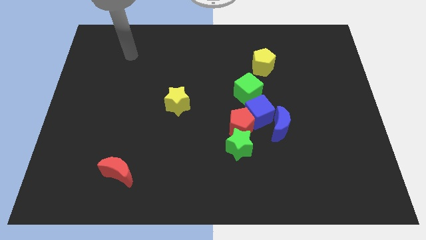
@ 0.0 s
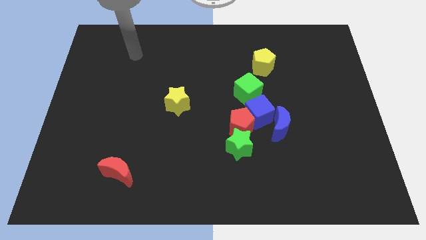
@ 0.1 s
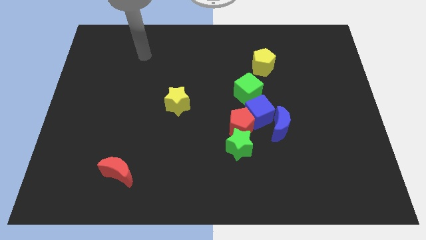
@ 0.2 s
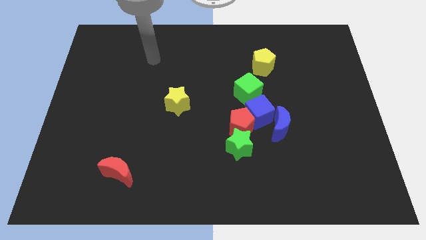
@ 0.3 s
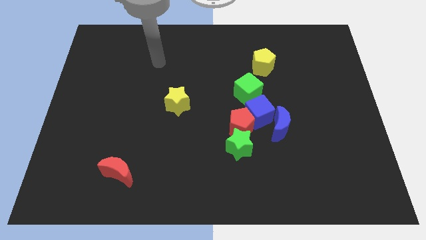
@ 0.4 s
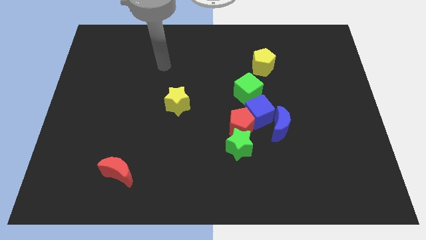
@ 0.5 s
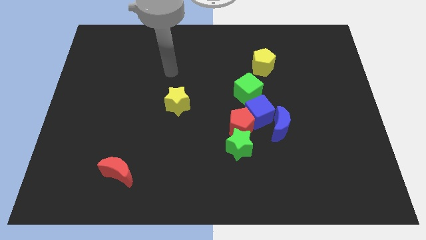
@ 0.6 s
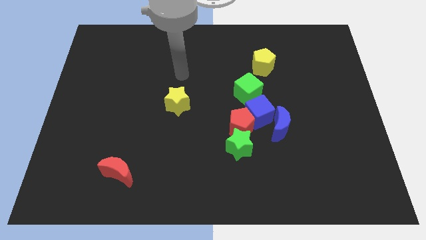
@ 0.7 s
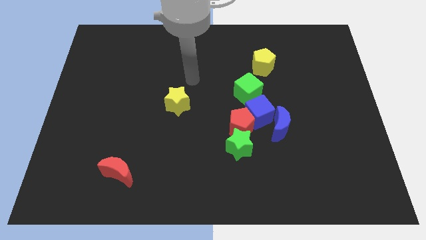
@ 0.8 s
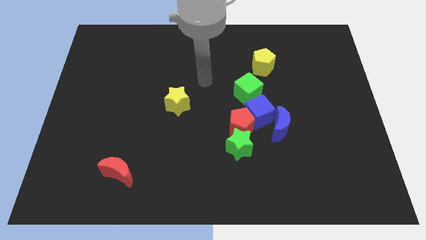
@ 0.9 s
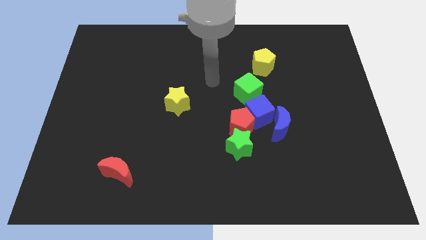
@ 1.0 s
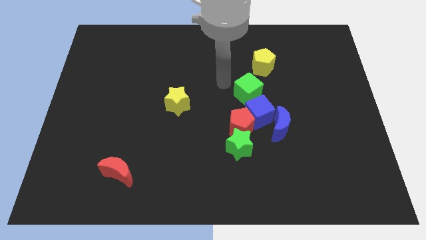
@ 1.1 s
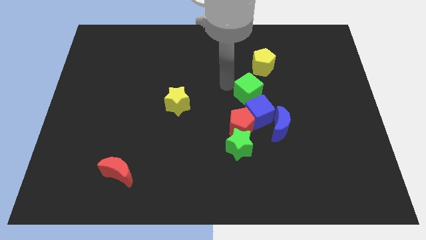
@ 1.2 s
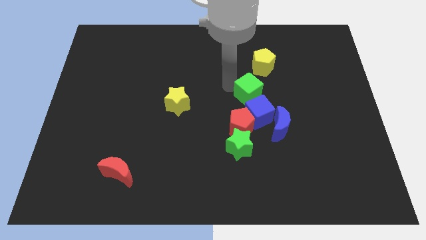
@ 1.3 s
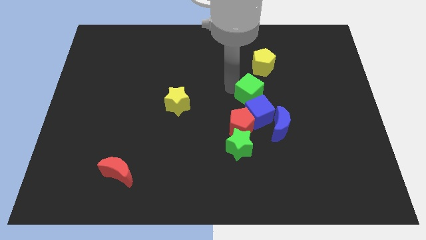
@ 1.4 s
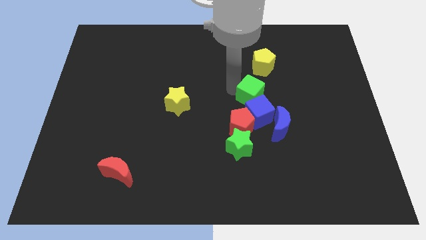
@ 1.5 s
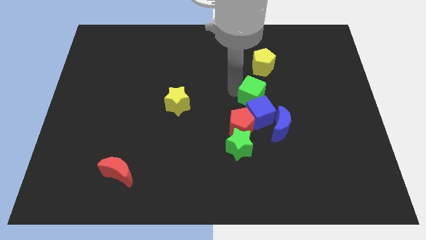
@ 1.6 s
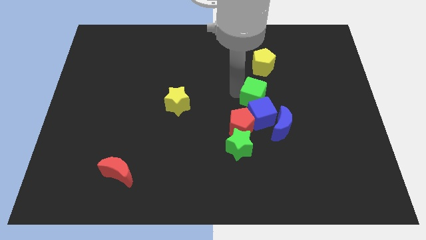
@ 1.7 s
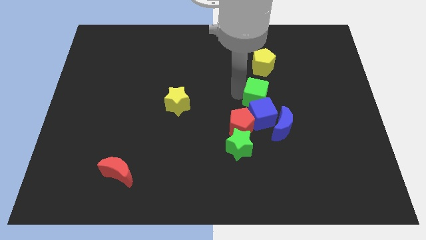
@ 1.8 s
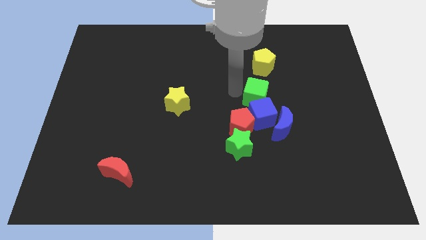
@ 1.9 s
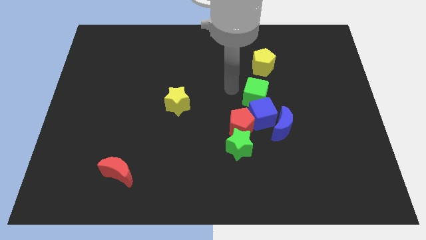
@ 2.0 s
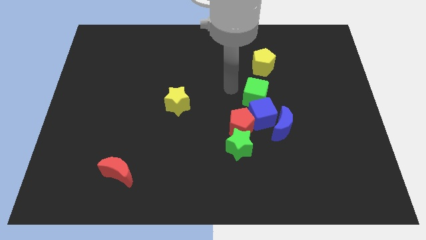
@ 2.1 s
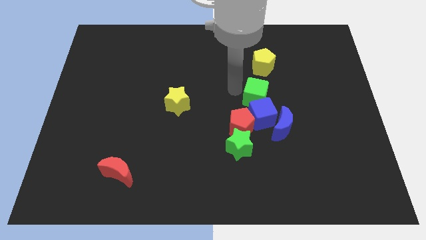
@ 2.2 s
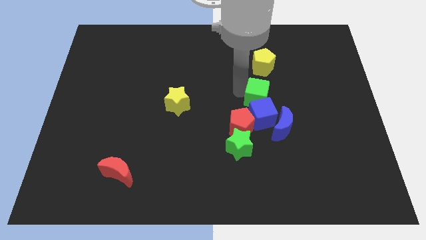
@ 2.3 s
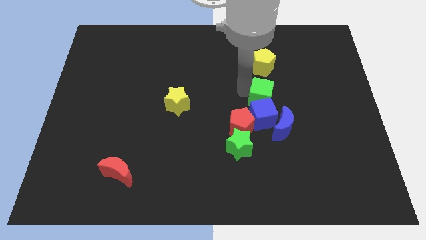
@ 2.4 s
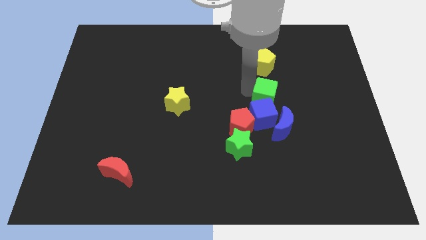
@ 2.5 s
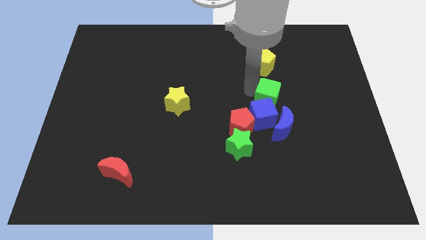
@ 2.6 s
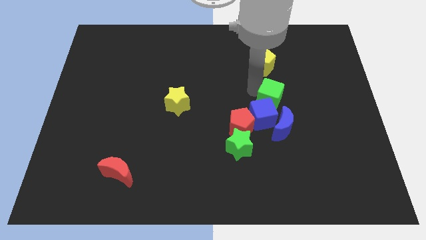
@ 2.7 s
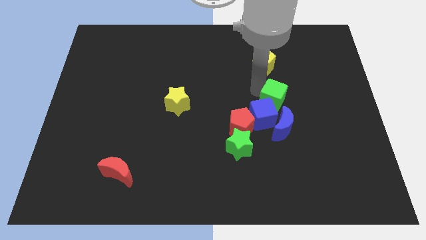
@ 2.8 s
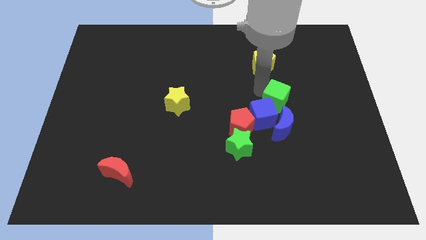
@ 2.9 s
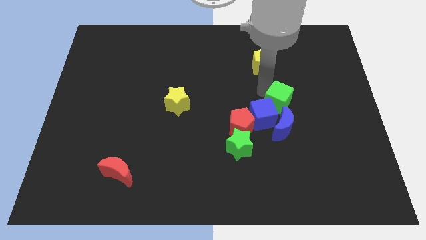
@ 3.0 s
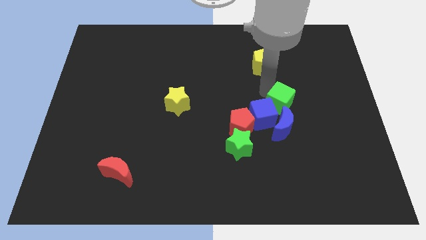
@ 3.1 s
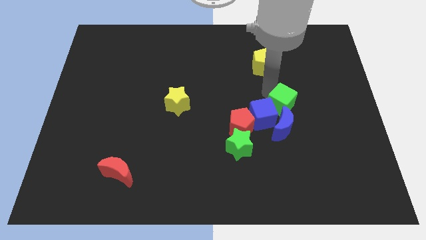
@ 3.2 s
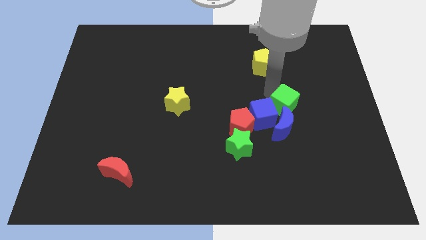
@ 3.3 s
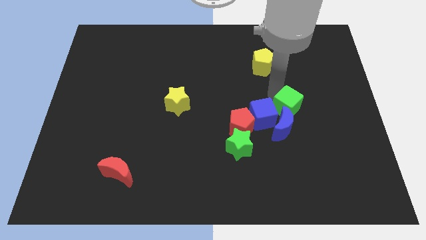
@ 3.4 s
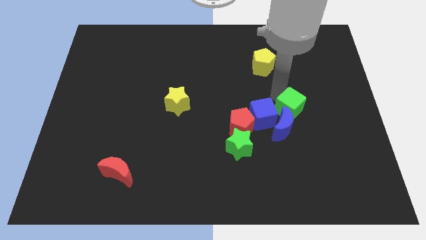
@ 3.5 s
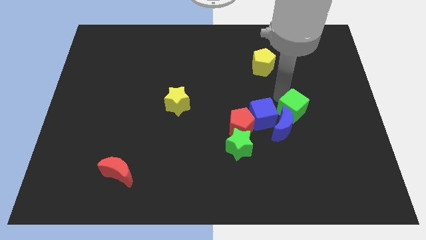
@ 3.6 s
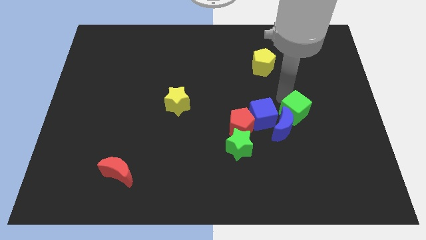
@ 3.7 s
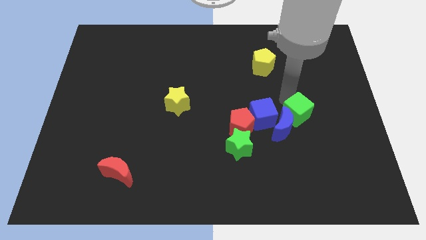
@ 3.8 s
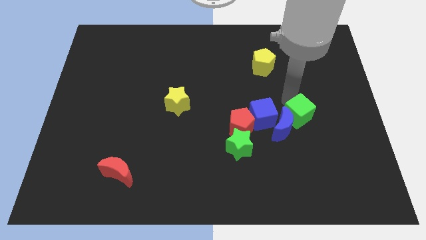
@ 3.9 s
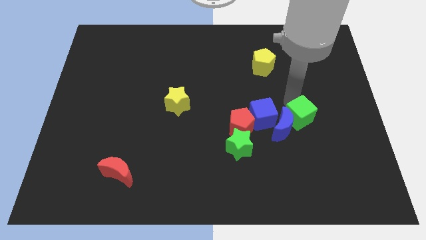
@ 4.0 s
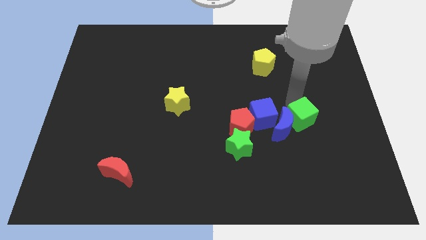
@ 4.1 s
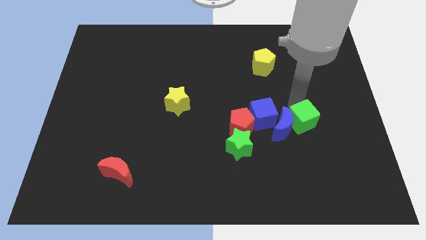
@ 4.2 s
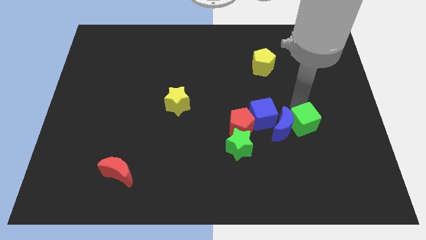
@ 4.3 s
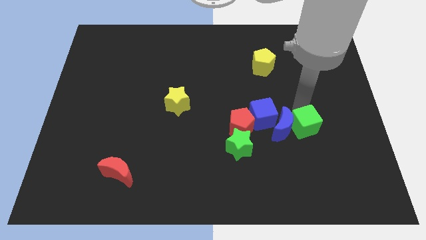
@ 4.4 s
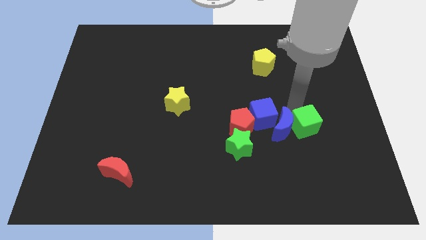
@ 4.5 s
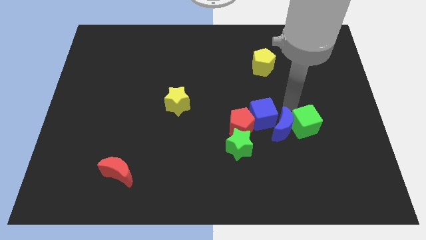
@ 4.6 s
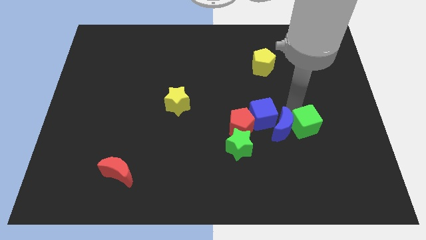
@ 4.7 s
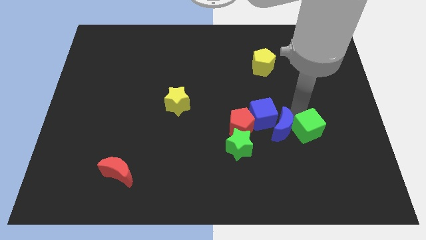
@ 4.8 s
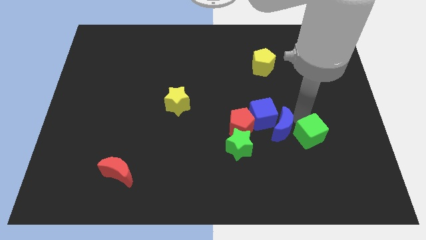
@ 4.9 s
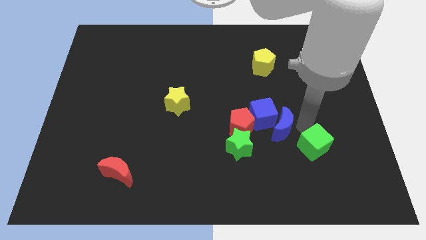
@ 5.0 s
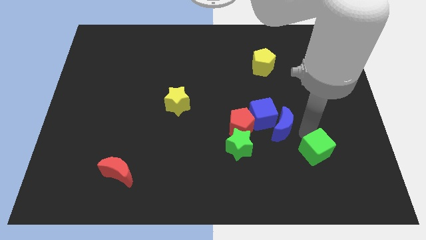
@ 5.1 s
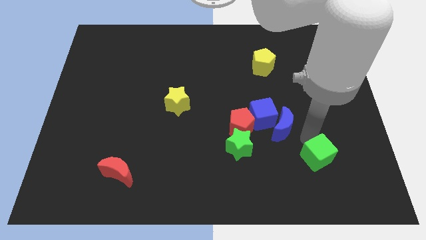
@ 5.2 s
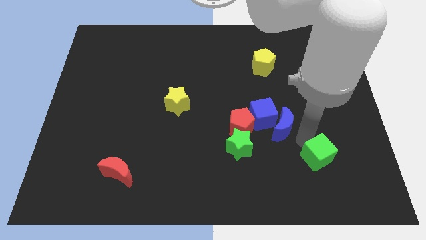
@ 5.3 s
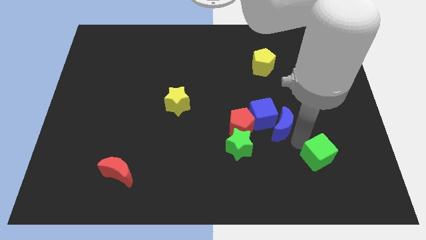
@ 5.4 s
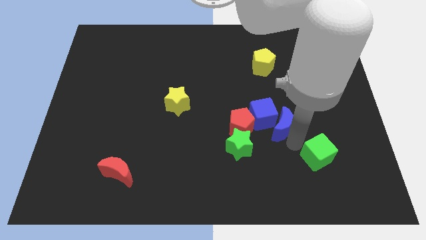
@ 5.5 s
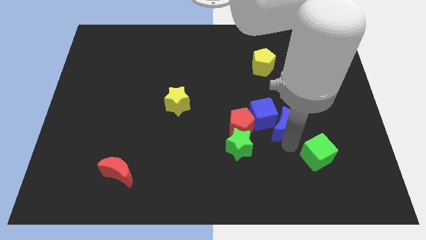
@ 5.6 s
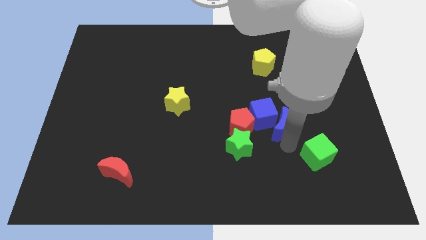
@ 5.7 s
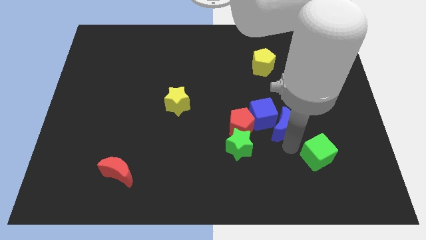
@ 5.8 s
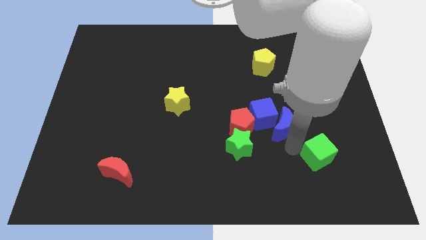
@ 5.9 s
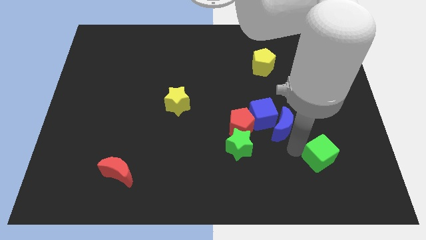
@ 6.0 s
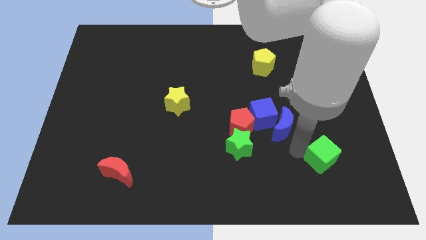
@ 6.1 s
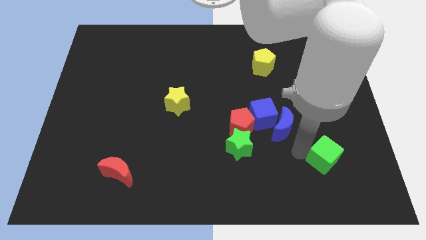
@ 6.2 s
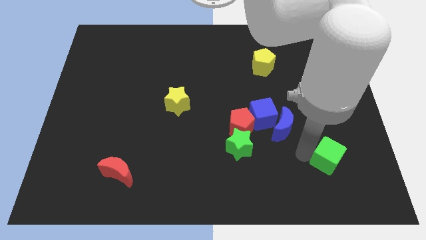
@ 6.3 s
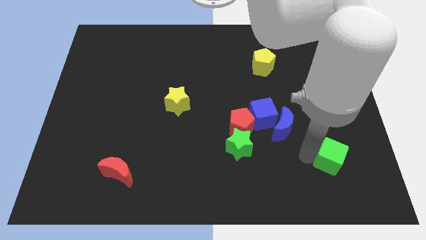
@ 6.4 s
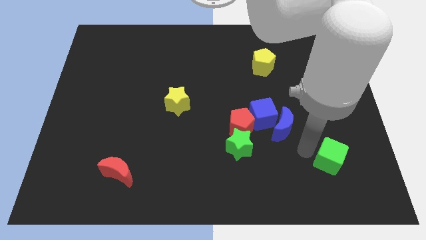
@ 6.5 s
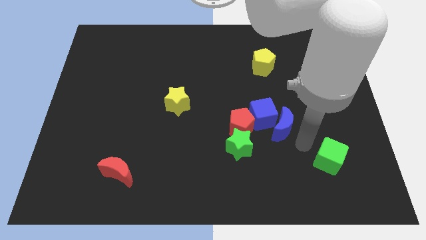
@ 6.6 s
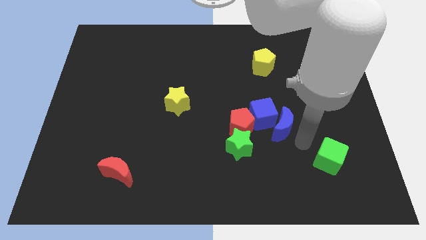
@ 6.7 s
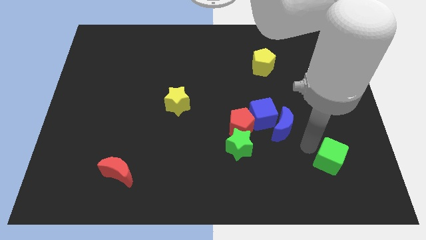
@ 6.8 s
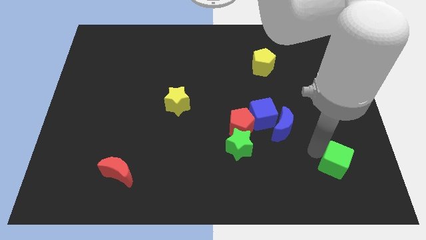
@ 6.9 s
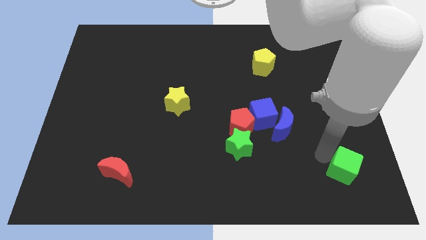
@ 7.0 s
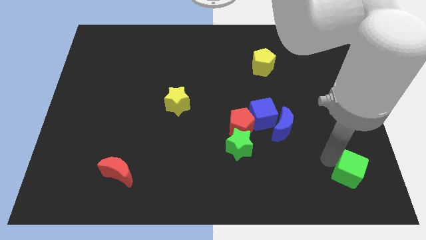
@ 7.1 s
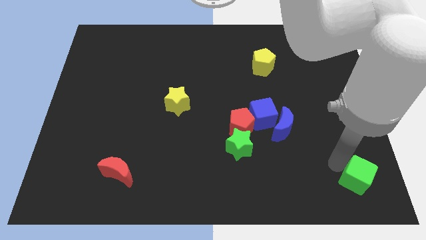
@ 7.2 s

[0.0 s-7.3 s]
push the green cube to the bottom right
